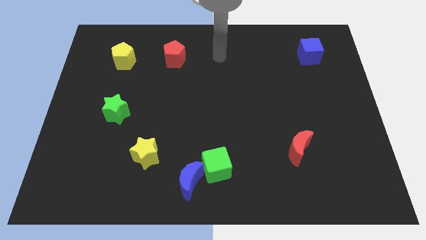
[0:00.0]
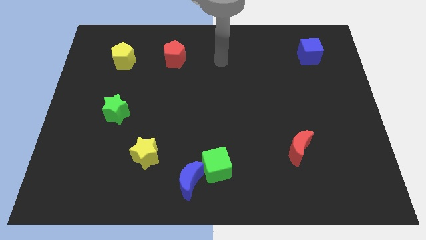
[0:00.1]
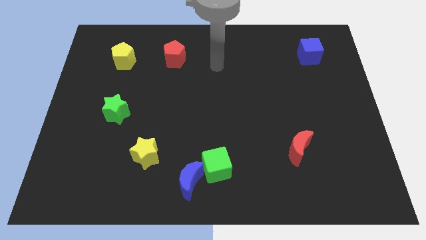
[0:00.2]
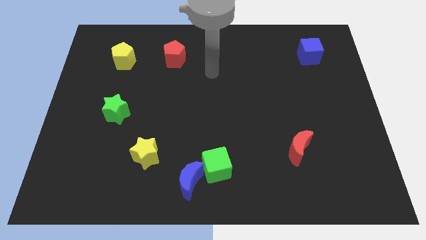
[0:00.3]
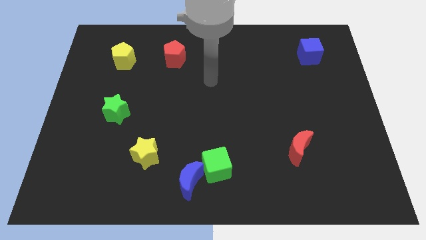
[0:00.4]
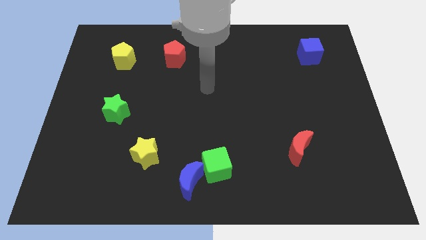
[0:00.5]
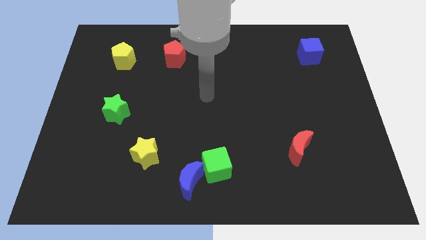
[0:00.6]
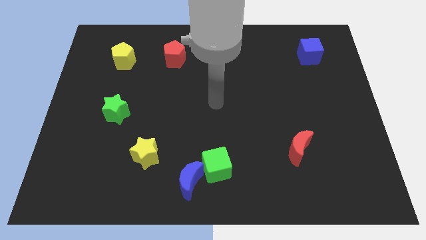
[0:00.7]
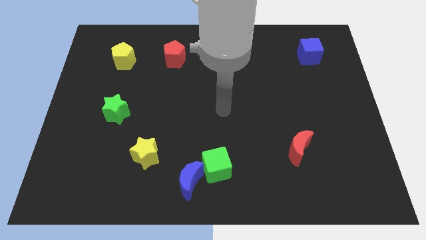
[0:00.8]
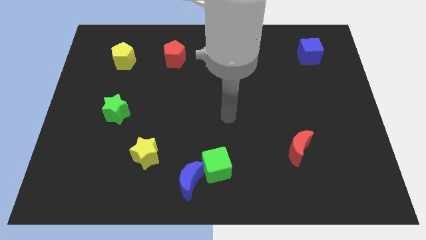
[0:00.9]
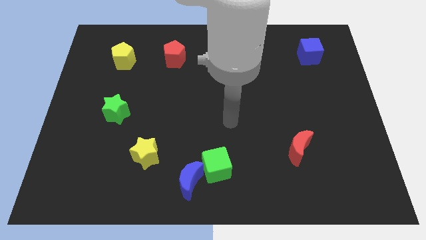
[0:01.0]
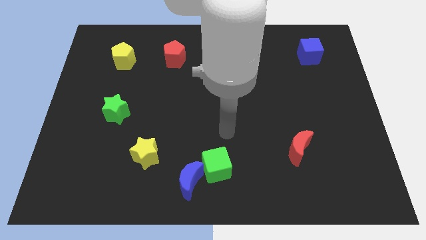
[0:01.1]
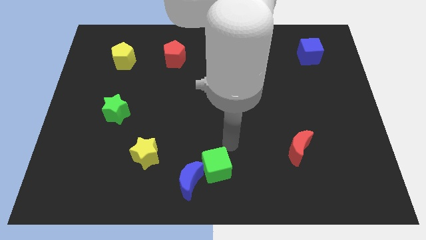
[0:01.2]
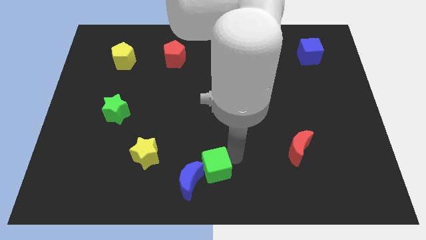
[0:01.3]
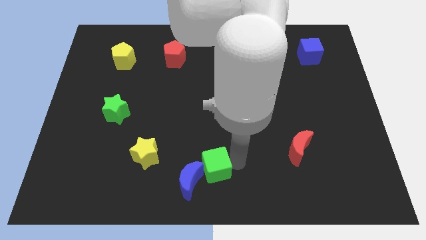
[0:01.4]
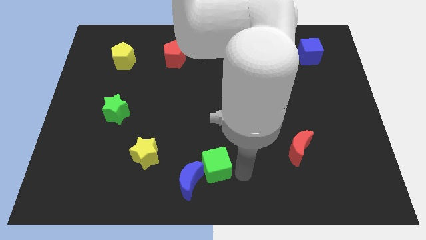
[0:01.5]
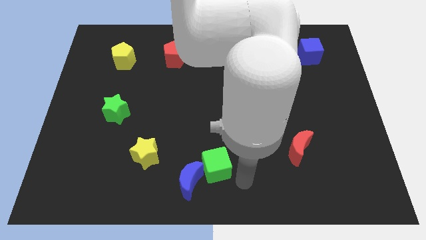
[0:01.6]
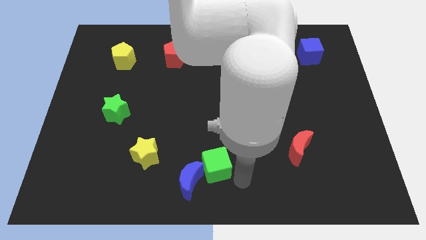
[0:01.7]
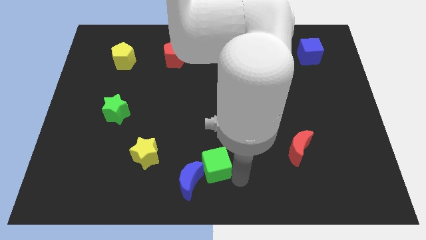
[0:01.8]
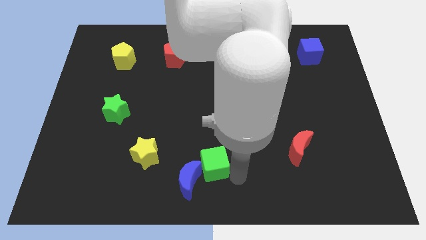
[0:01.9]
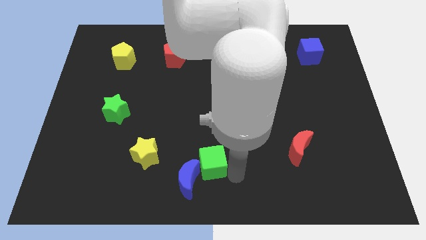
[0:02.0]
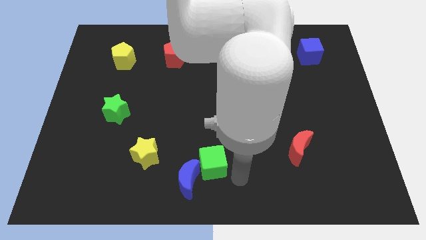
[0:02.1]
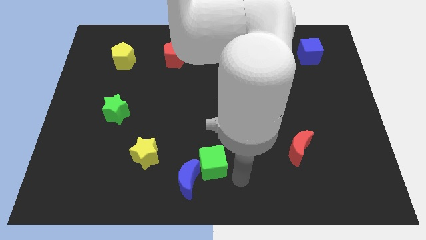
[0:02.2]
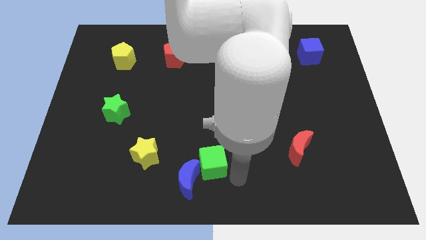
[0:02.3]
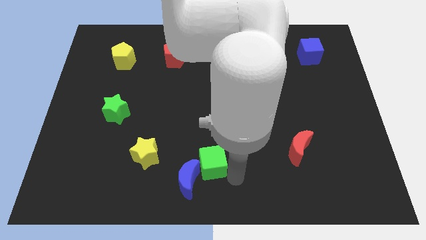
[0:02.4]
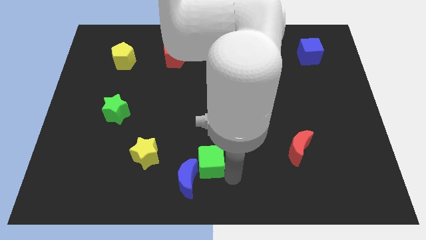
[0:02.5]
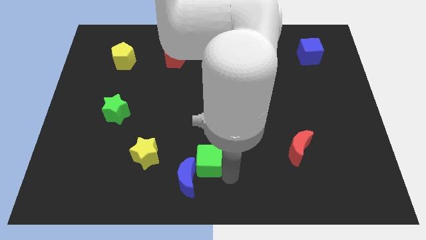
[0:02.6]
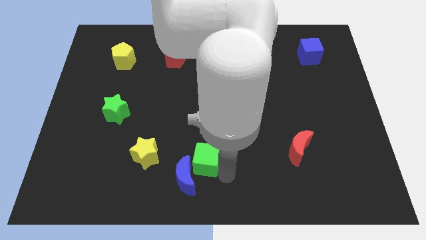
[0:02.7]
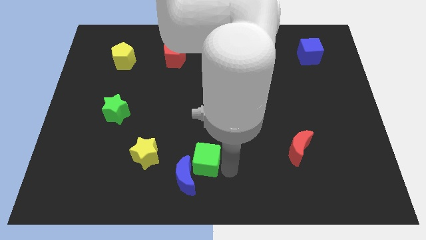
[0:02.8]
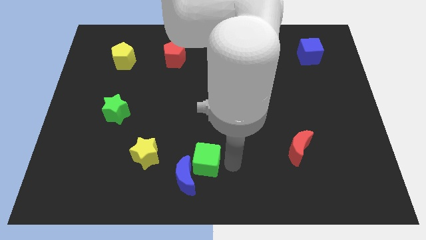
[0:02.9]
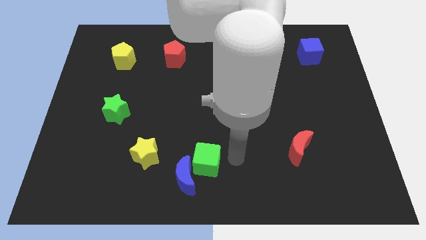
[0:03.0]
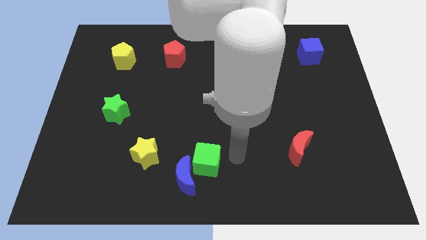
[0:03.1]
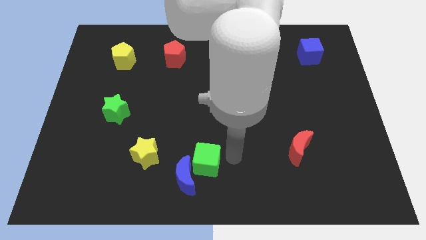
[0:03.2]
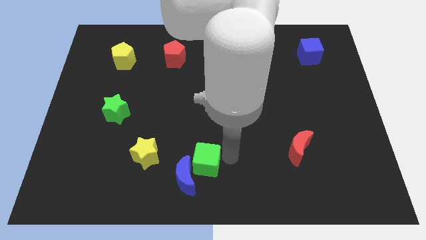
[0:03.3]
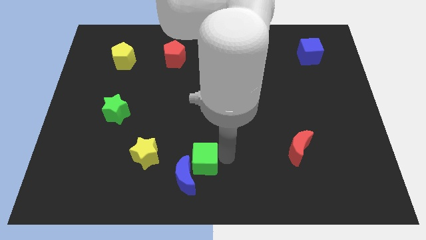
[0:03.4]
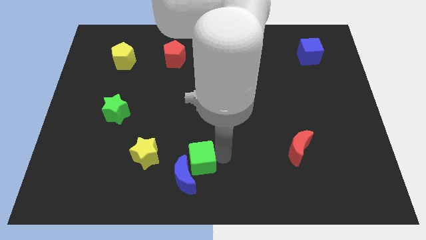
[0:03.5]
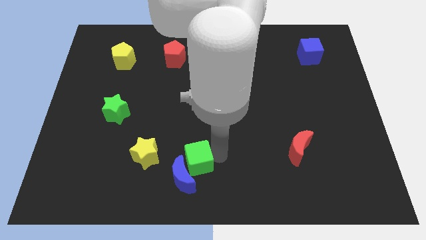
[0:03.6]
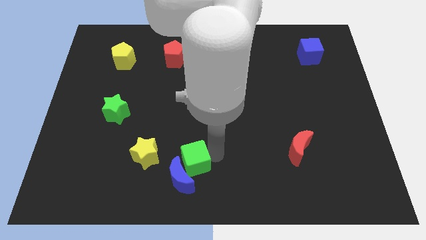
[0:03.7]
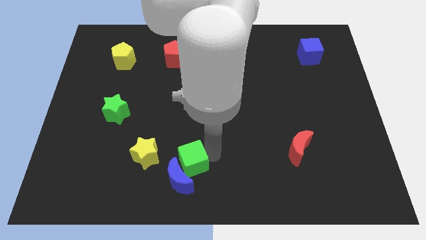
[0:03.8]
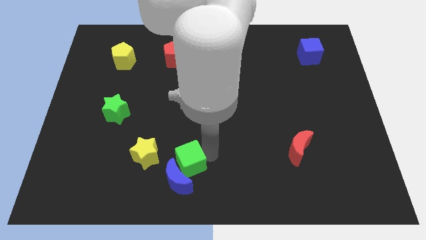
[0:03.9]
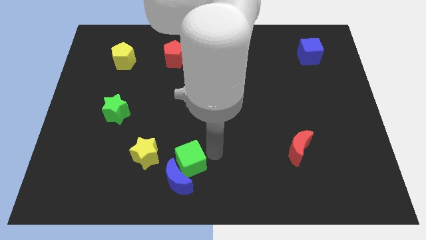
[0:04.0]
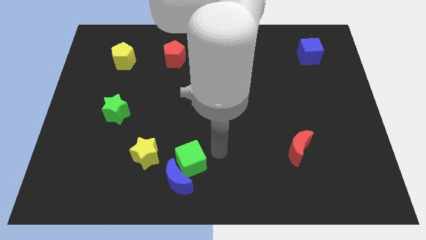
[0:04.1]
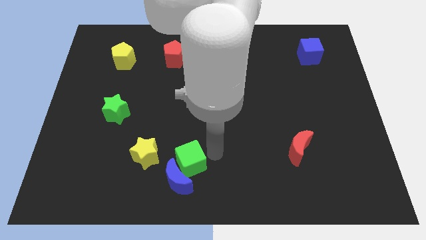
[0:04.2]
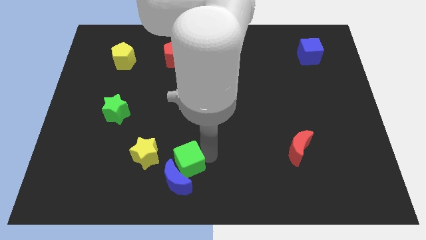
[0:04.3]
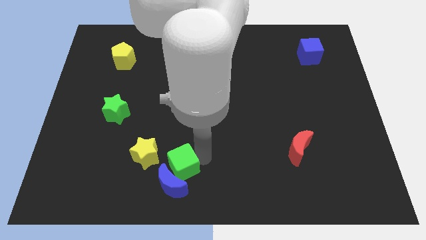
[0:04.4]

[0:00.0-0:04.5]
move the green cube a little left

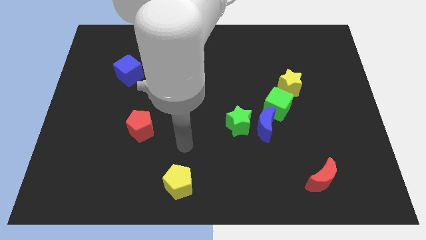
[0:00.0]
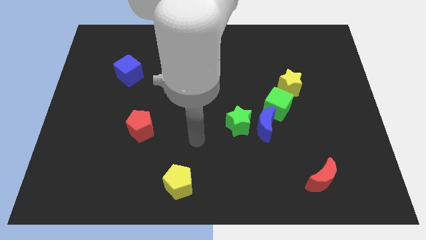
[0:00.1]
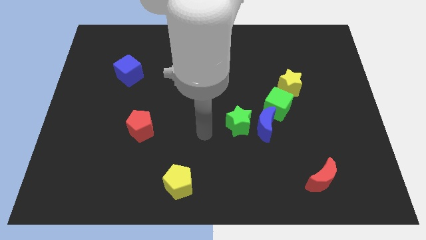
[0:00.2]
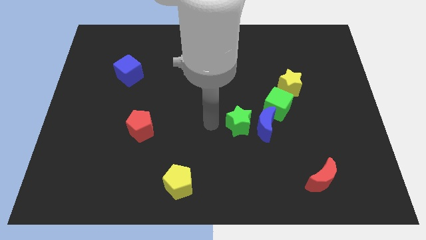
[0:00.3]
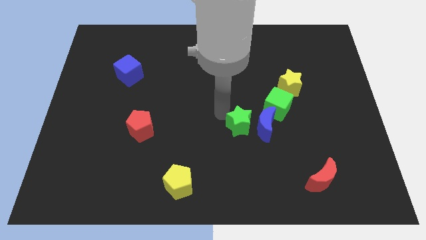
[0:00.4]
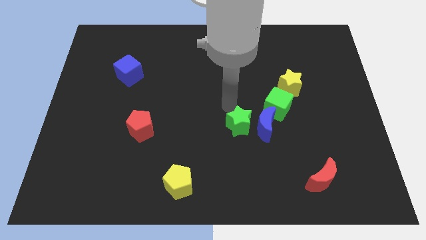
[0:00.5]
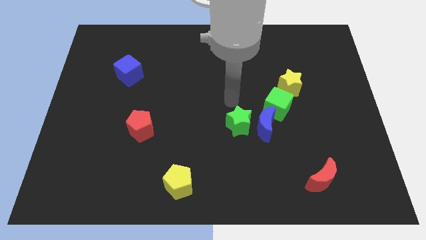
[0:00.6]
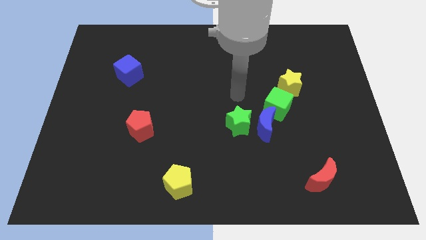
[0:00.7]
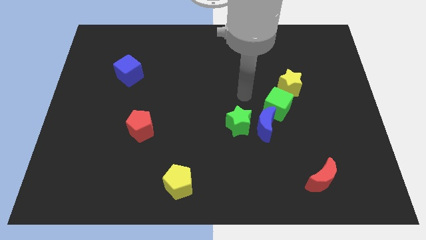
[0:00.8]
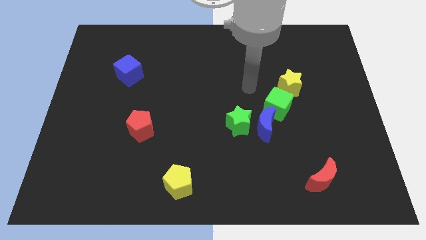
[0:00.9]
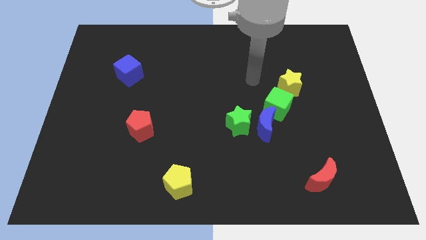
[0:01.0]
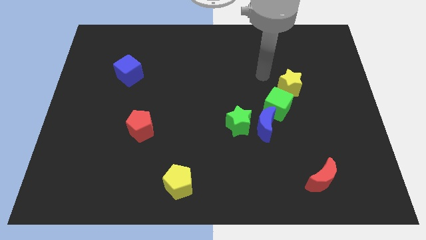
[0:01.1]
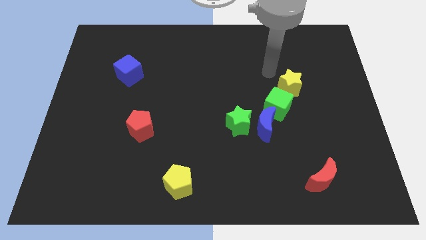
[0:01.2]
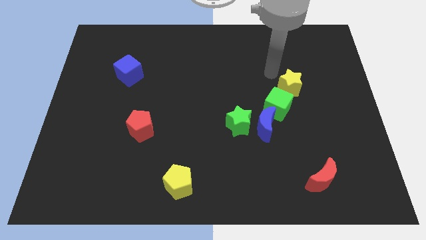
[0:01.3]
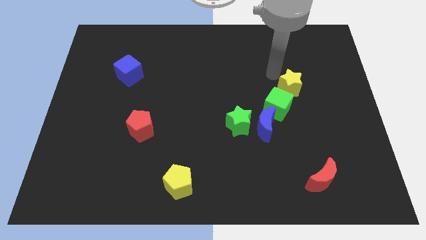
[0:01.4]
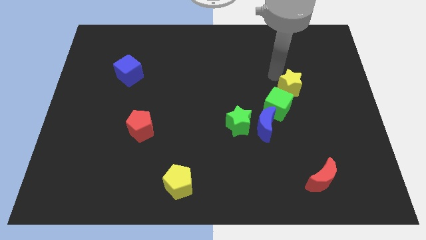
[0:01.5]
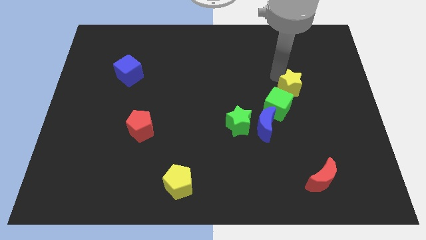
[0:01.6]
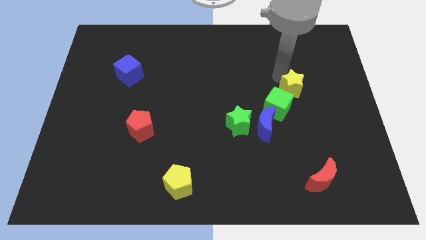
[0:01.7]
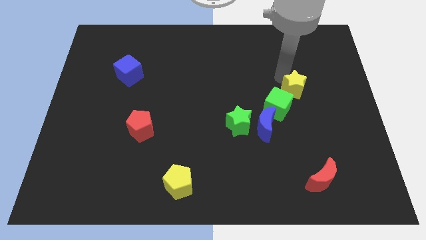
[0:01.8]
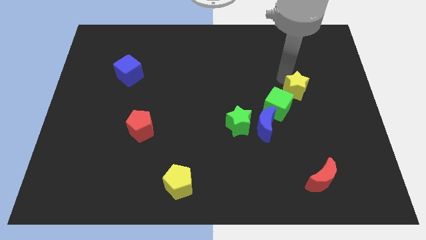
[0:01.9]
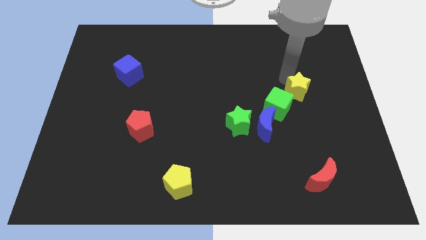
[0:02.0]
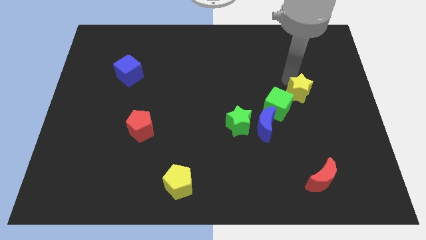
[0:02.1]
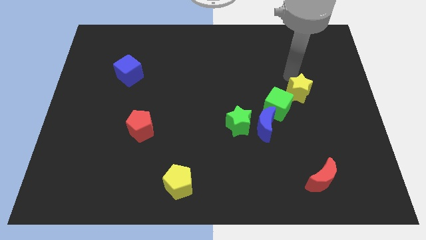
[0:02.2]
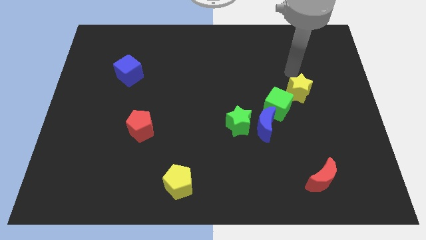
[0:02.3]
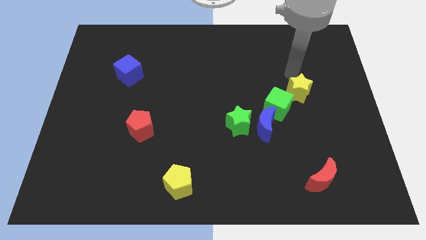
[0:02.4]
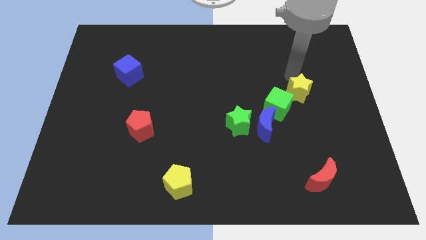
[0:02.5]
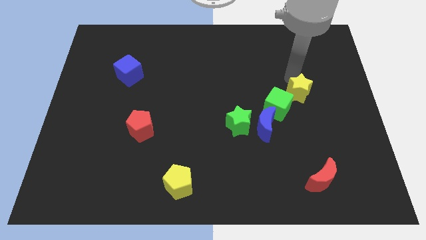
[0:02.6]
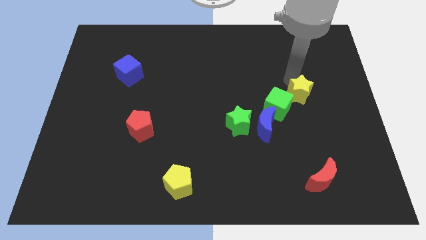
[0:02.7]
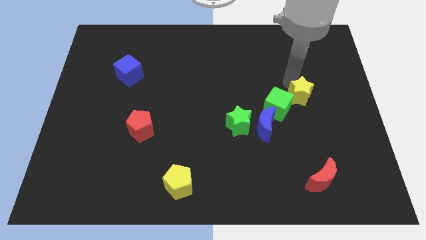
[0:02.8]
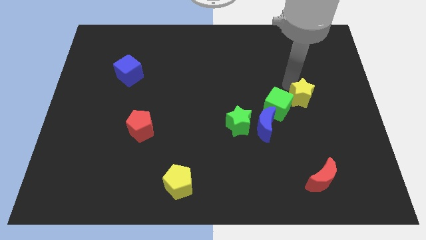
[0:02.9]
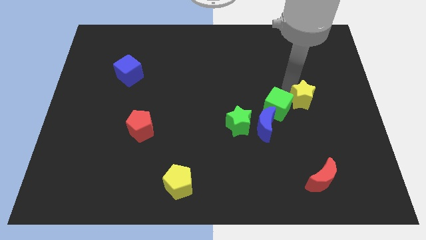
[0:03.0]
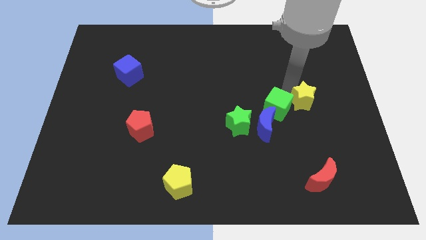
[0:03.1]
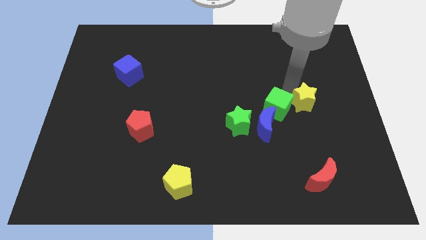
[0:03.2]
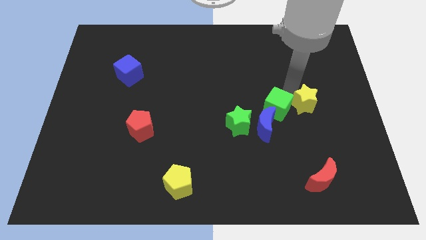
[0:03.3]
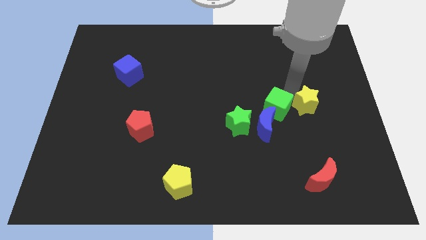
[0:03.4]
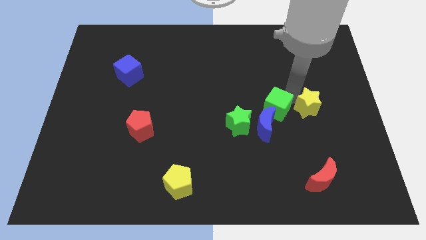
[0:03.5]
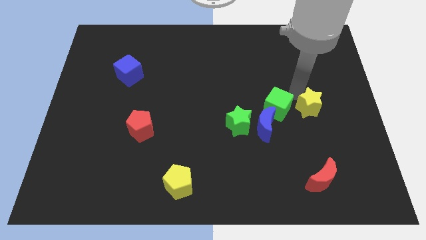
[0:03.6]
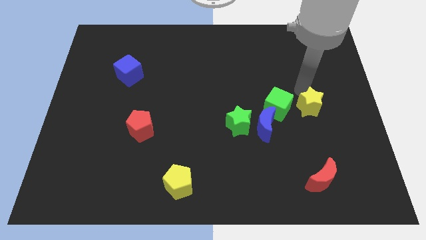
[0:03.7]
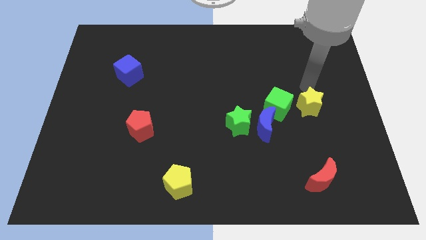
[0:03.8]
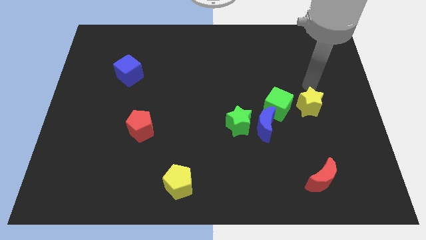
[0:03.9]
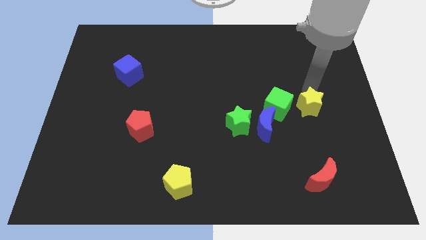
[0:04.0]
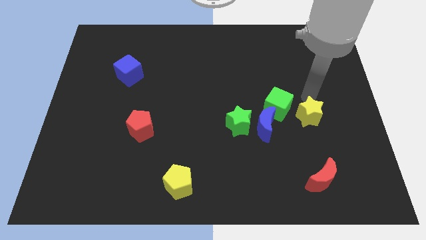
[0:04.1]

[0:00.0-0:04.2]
push the yellow star a bit down
